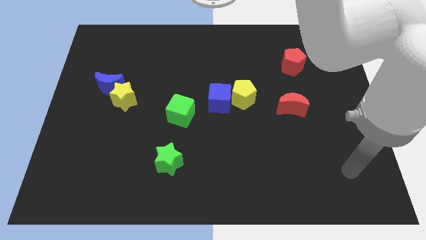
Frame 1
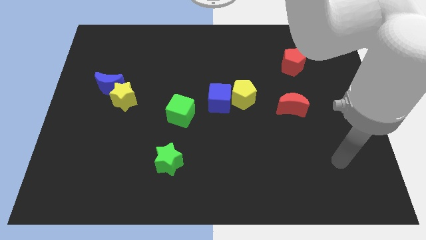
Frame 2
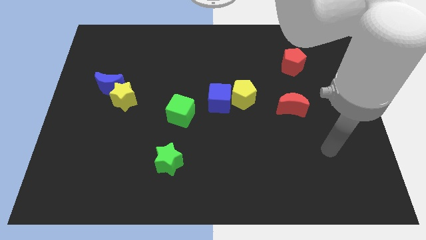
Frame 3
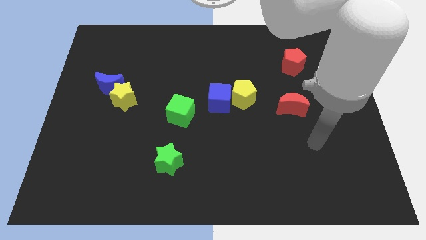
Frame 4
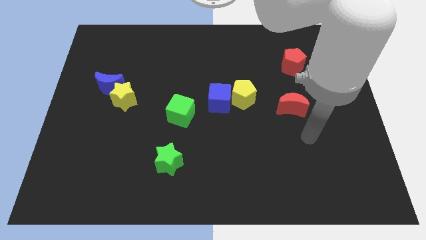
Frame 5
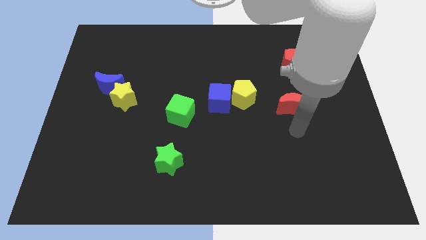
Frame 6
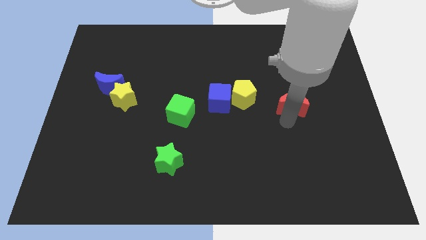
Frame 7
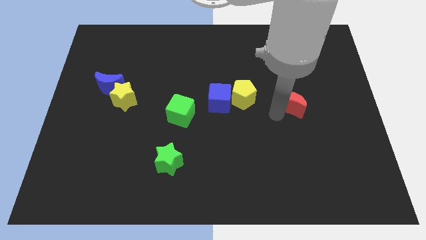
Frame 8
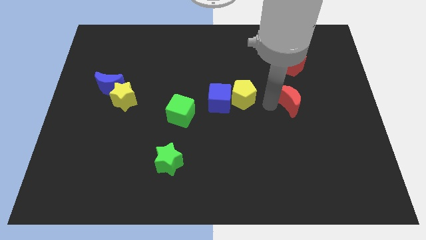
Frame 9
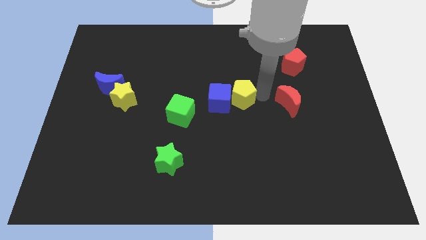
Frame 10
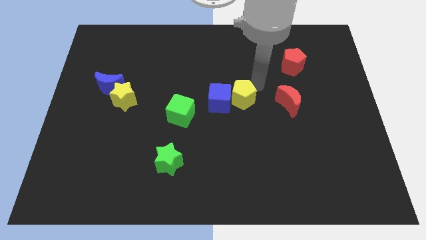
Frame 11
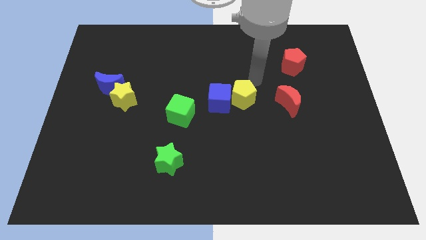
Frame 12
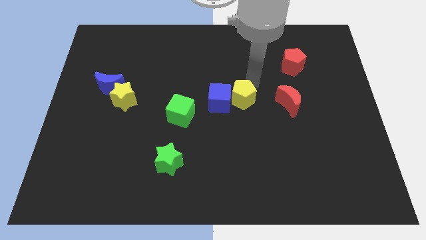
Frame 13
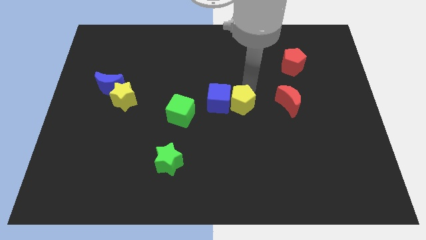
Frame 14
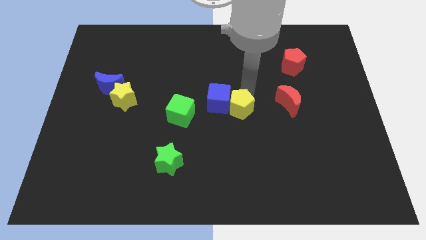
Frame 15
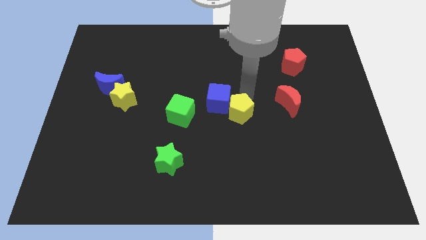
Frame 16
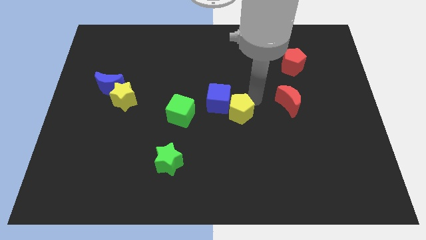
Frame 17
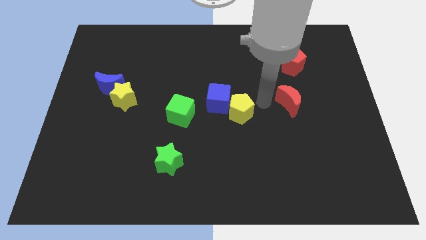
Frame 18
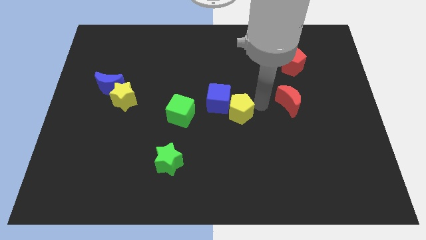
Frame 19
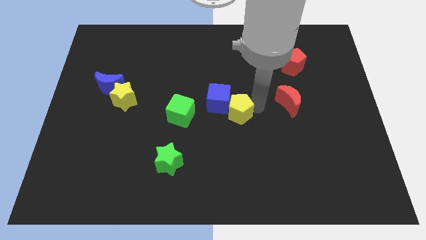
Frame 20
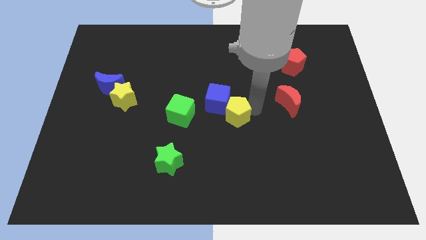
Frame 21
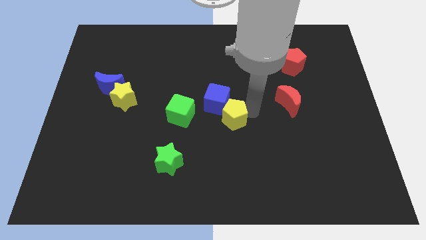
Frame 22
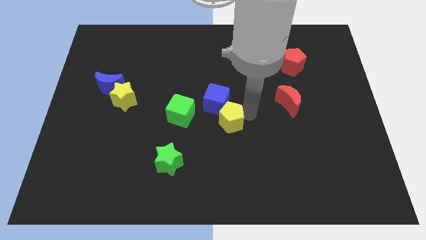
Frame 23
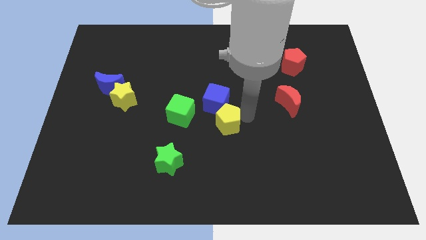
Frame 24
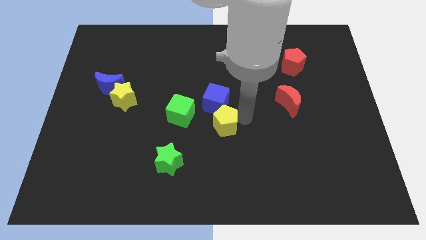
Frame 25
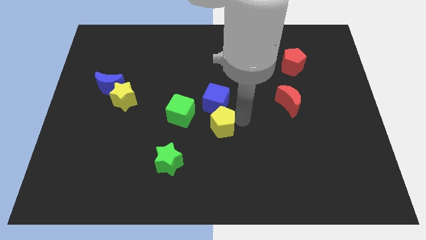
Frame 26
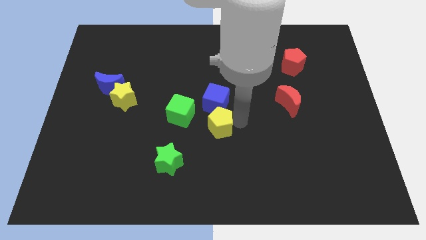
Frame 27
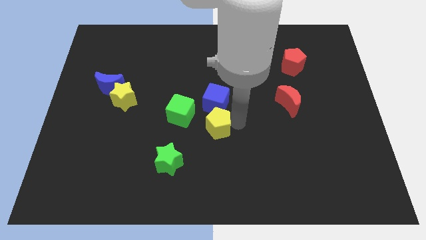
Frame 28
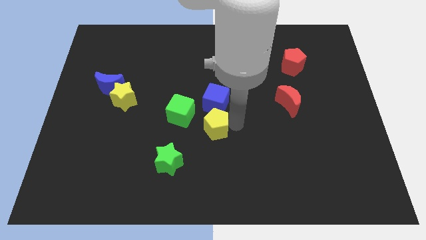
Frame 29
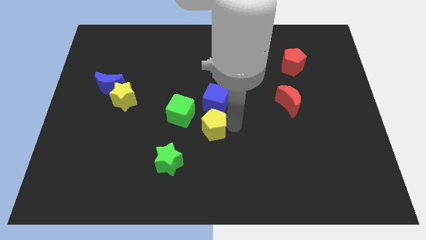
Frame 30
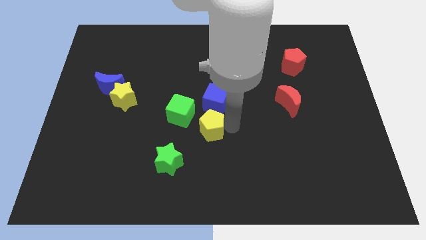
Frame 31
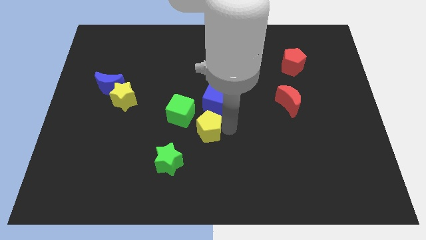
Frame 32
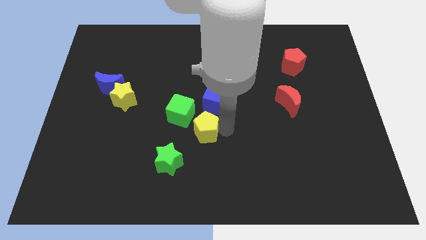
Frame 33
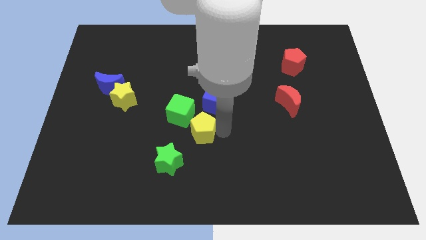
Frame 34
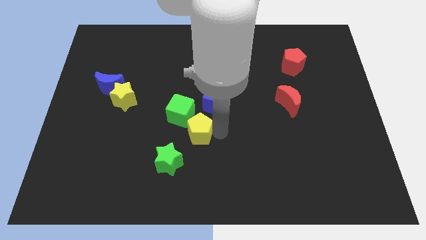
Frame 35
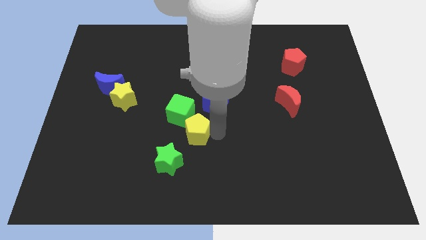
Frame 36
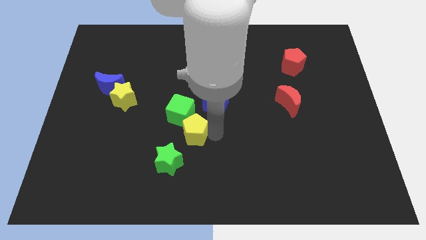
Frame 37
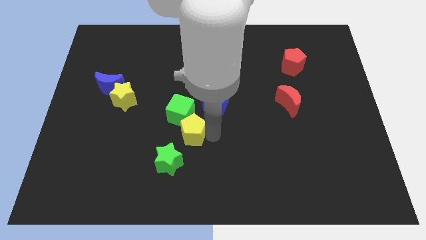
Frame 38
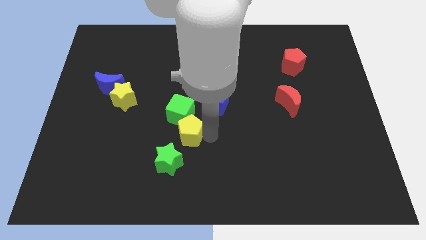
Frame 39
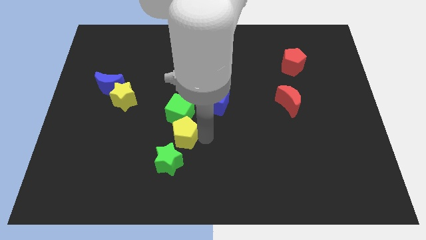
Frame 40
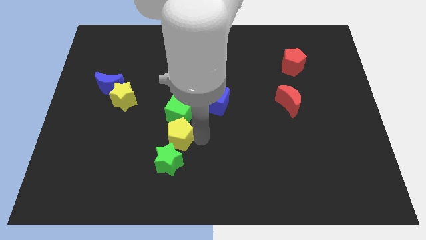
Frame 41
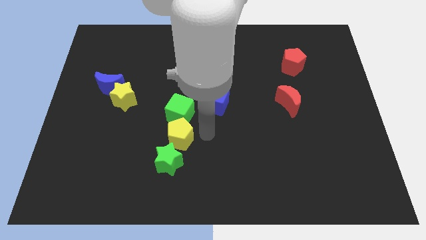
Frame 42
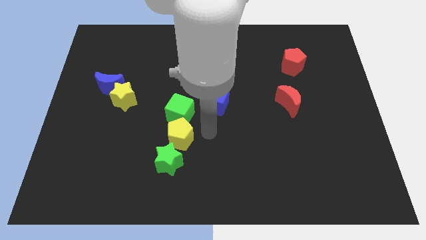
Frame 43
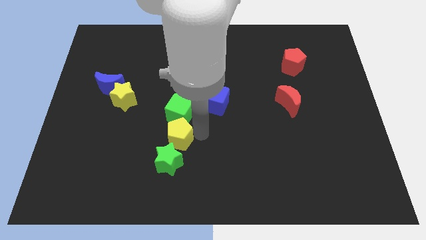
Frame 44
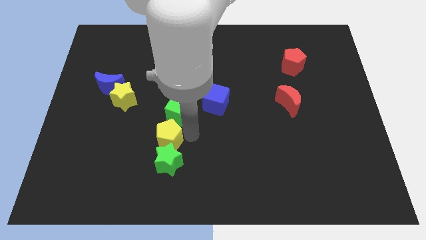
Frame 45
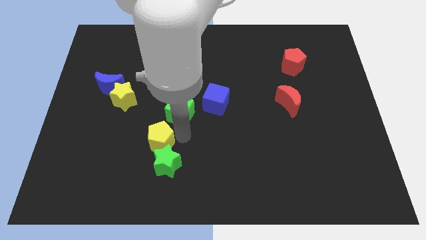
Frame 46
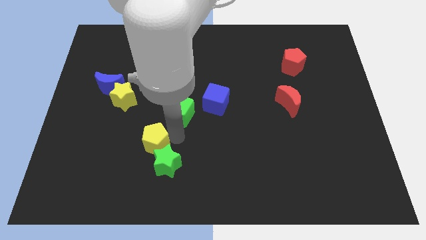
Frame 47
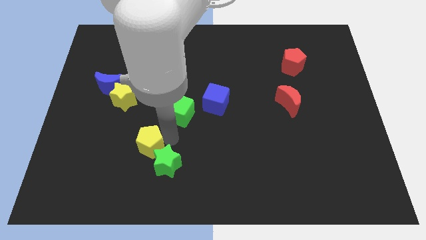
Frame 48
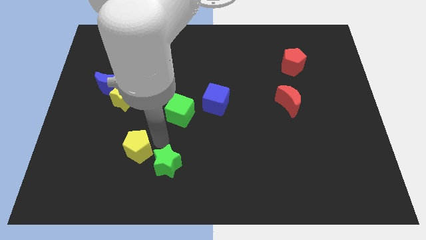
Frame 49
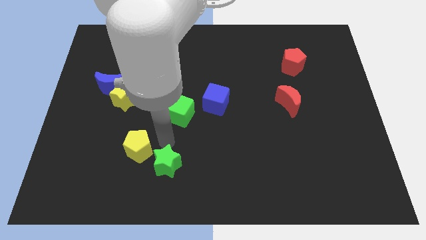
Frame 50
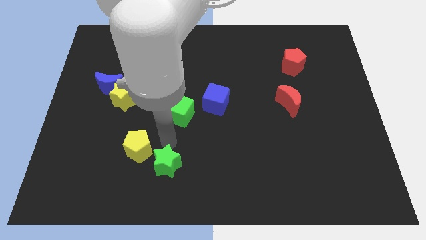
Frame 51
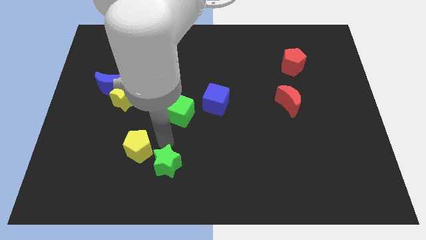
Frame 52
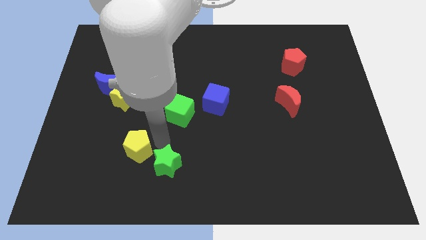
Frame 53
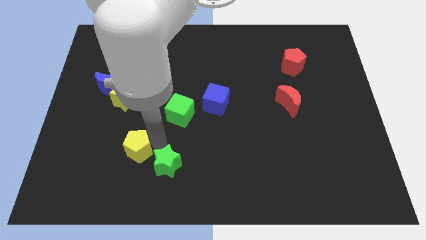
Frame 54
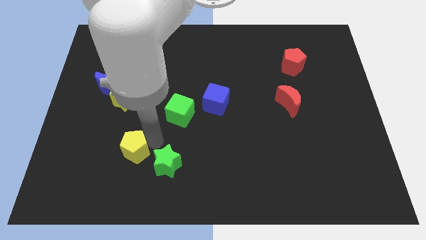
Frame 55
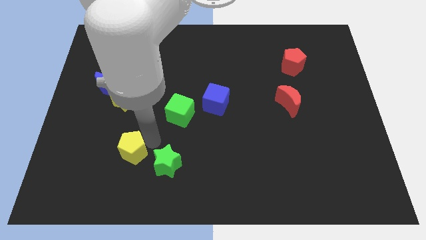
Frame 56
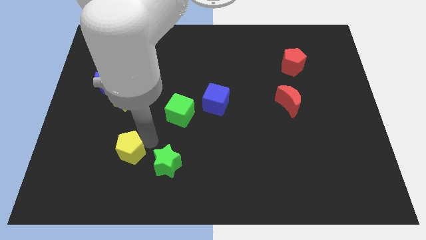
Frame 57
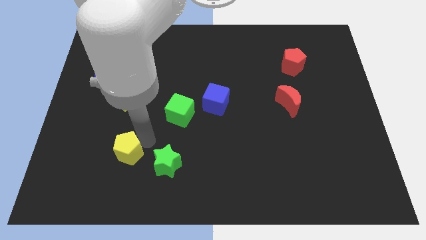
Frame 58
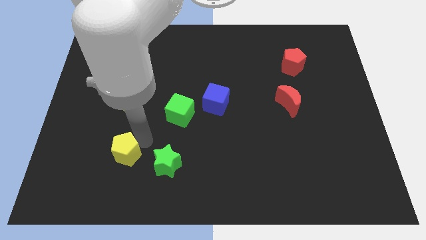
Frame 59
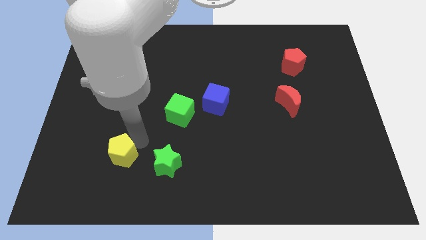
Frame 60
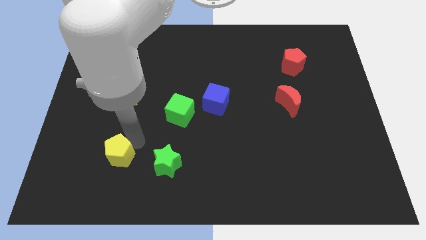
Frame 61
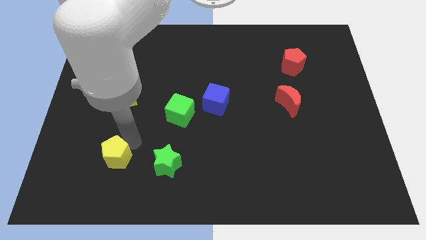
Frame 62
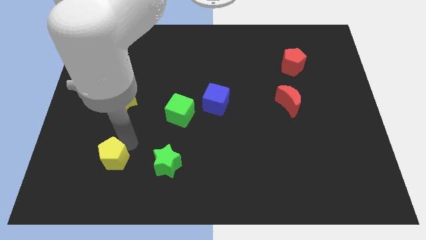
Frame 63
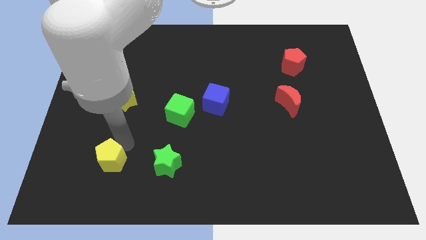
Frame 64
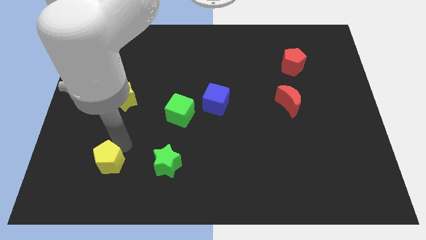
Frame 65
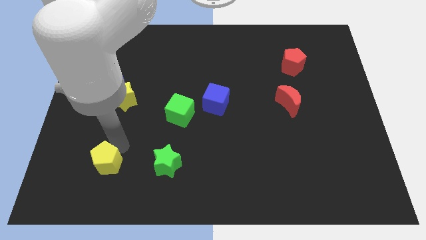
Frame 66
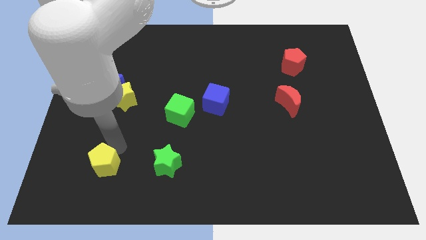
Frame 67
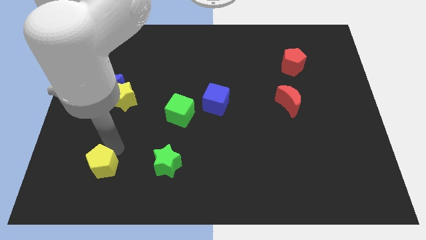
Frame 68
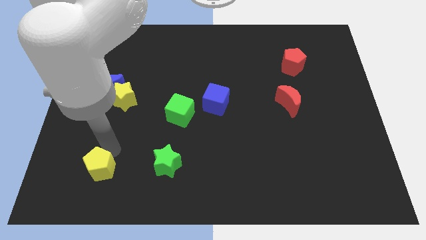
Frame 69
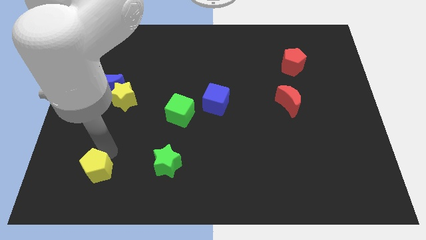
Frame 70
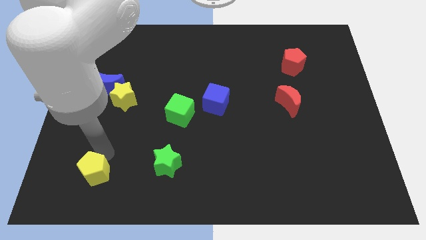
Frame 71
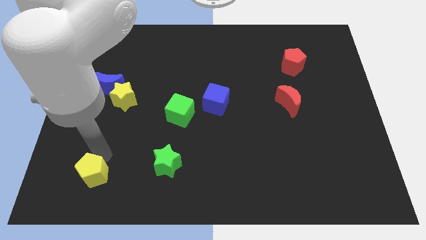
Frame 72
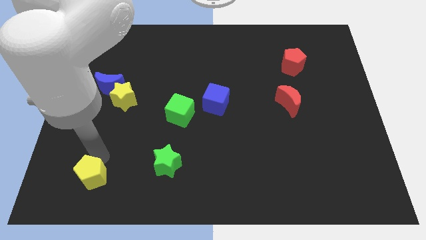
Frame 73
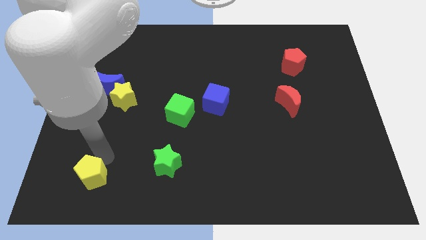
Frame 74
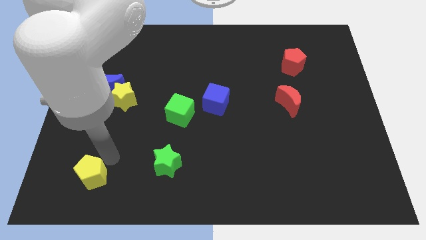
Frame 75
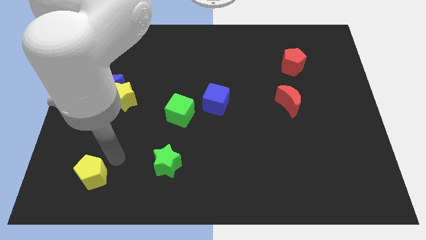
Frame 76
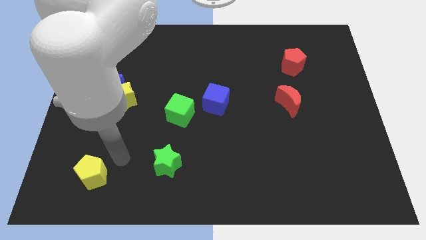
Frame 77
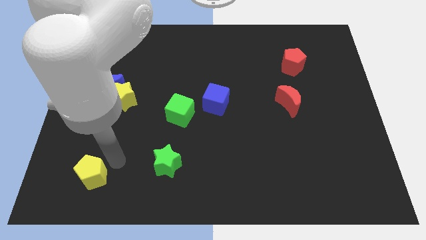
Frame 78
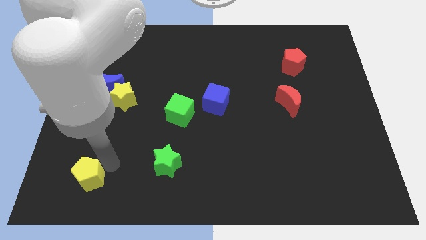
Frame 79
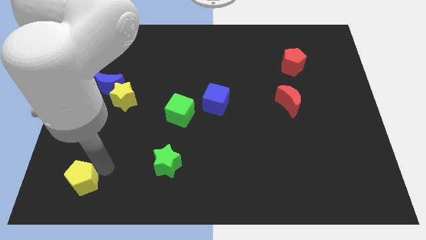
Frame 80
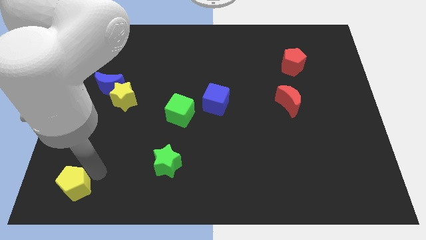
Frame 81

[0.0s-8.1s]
push the yellow pentagon to the bottom left
